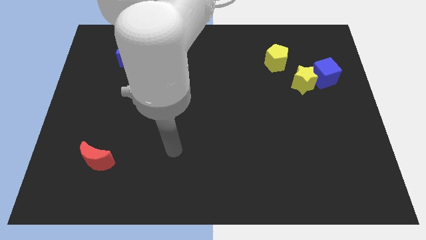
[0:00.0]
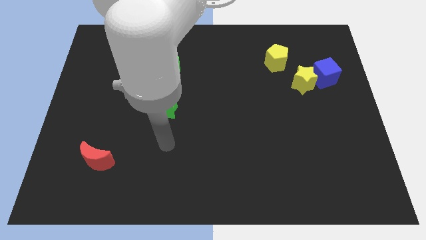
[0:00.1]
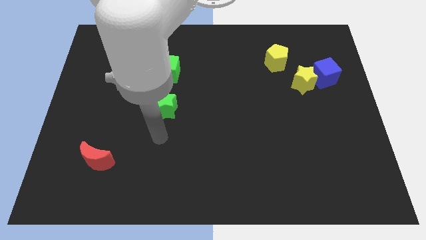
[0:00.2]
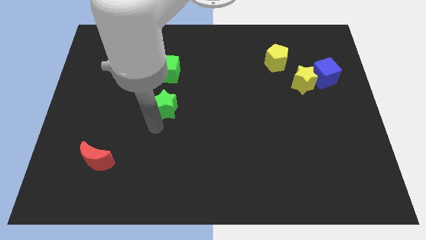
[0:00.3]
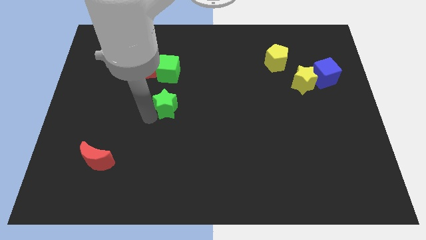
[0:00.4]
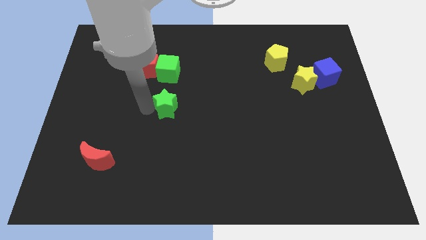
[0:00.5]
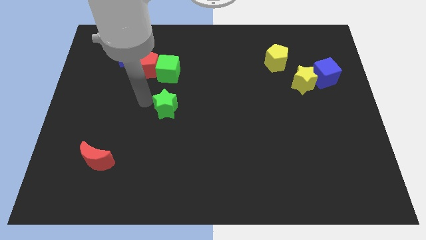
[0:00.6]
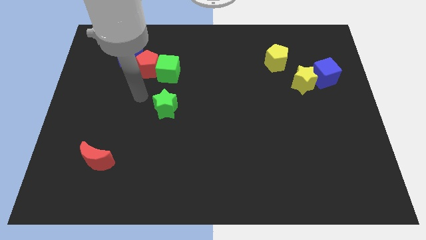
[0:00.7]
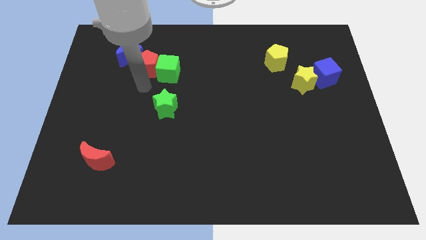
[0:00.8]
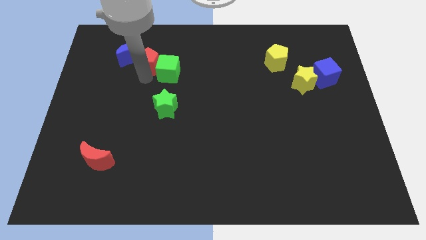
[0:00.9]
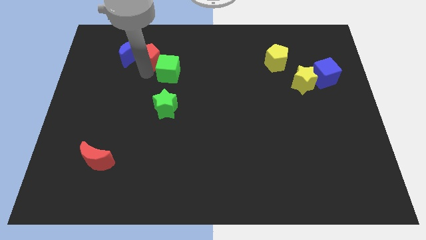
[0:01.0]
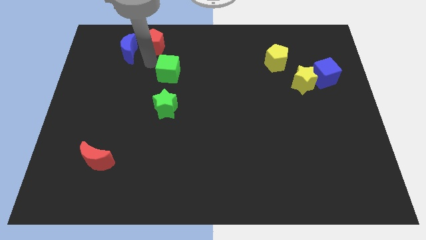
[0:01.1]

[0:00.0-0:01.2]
separate the green cube from the red pentagon

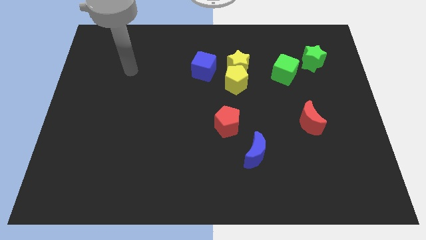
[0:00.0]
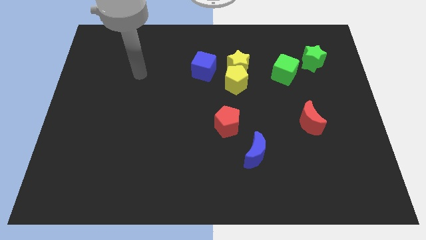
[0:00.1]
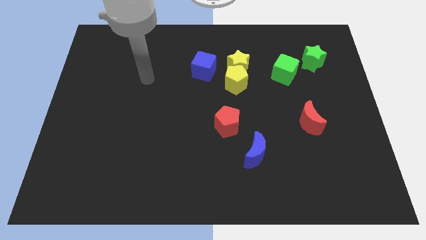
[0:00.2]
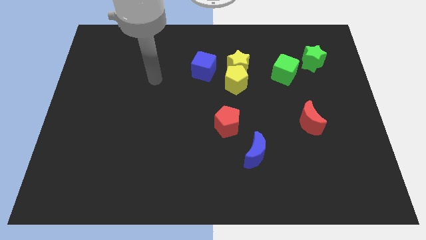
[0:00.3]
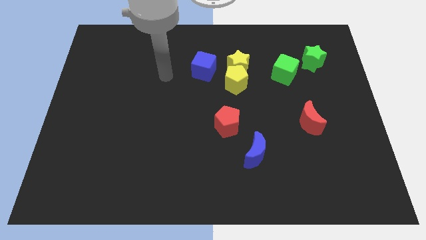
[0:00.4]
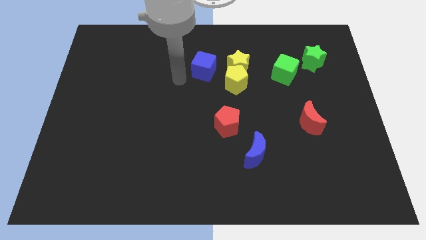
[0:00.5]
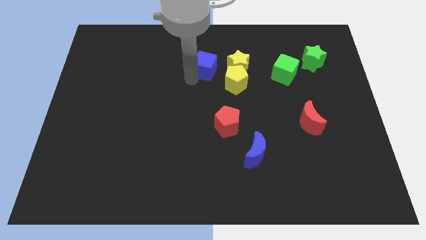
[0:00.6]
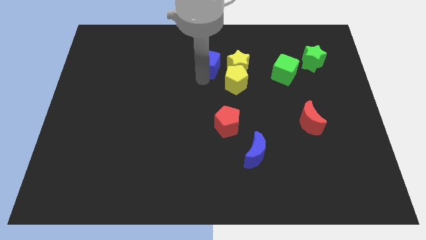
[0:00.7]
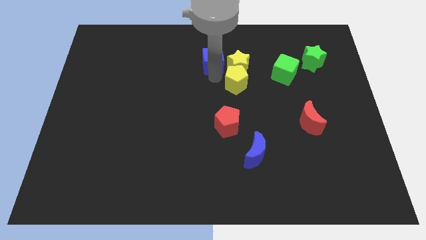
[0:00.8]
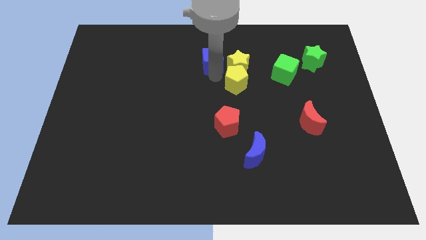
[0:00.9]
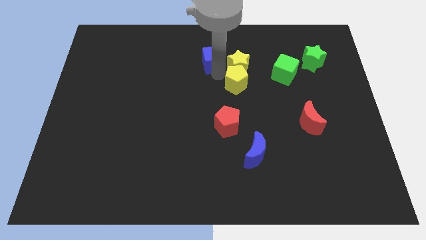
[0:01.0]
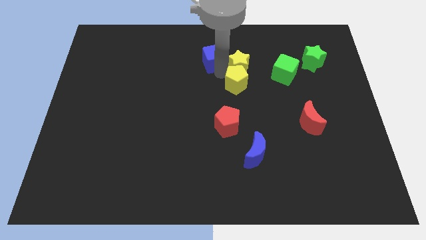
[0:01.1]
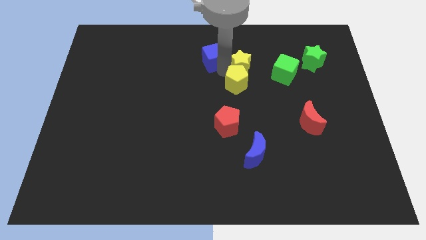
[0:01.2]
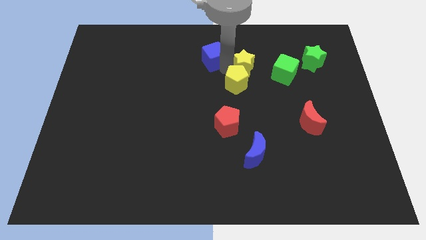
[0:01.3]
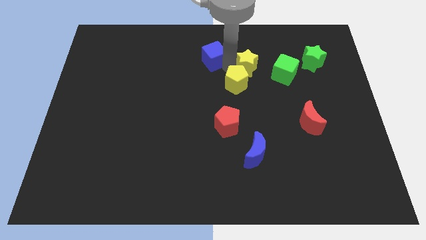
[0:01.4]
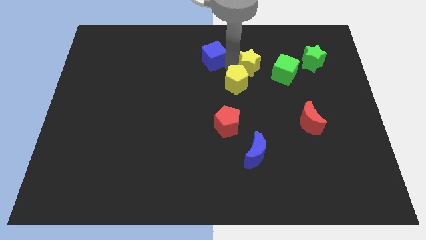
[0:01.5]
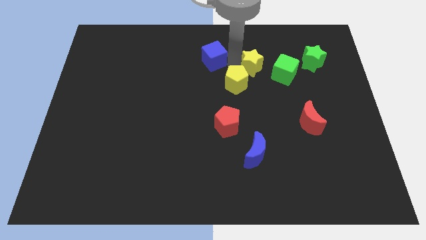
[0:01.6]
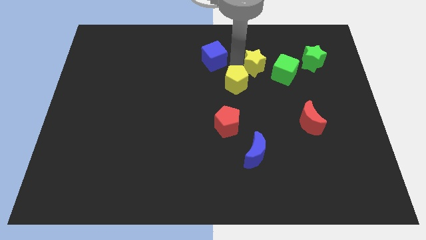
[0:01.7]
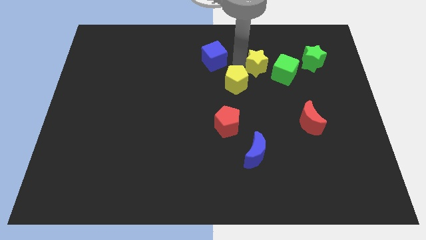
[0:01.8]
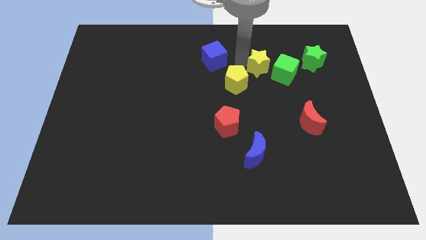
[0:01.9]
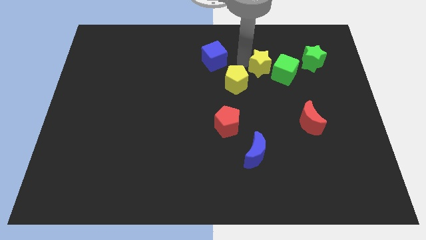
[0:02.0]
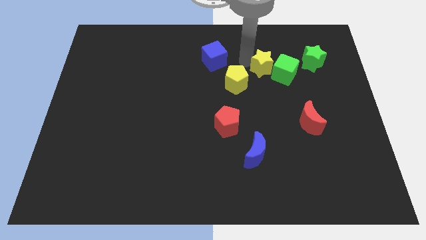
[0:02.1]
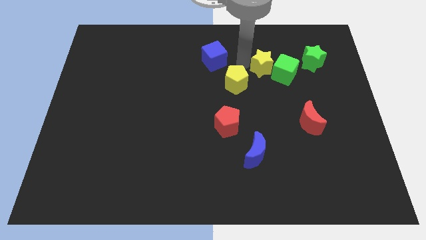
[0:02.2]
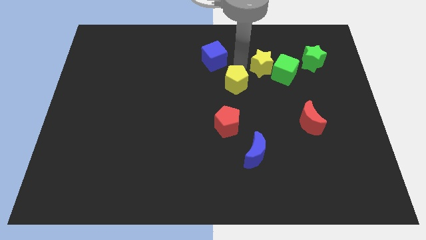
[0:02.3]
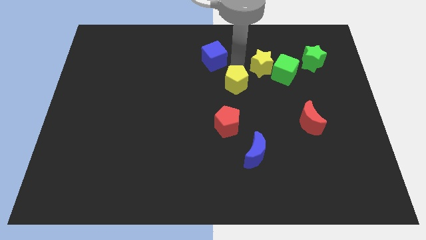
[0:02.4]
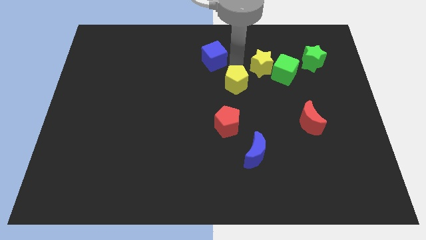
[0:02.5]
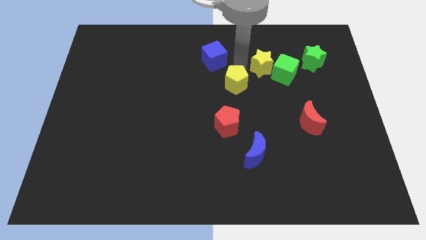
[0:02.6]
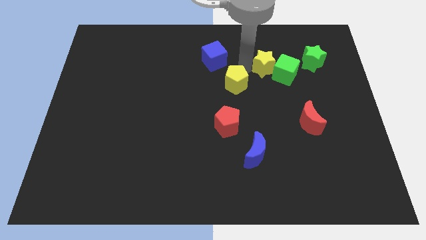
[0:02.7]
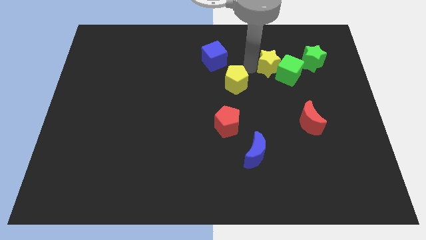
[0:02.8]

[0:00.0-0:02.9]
move the yellow star away from the yellow pentagon and blue cube

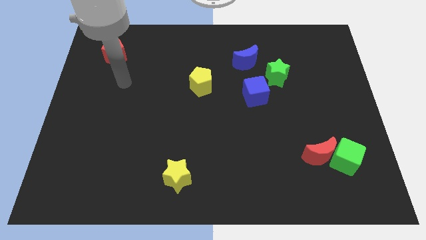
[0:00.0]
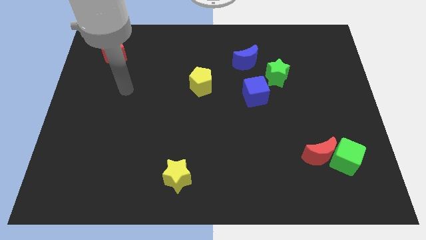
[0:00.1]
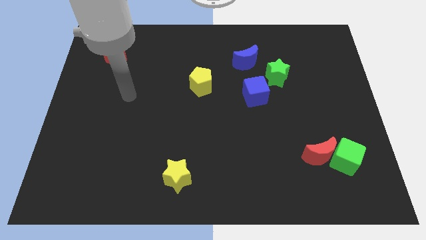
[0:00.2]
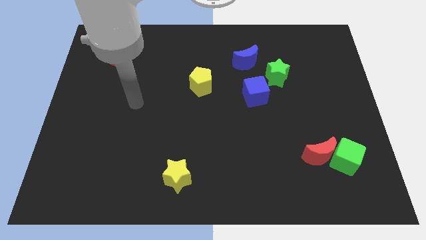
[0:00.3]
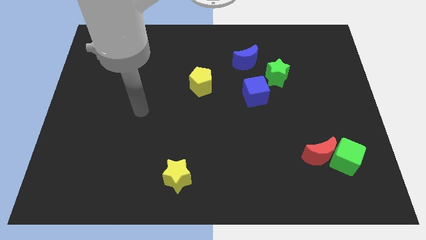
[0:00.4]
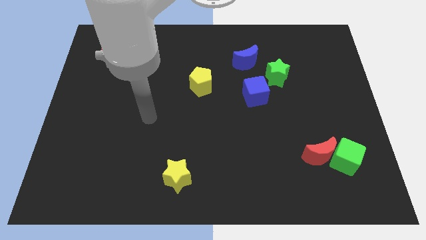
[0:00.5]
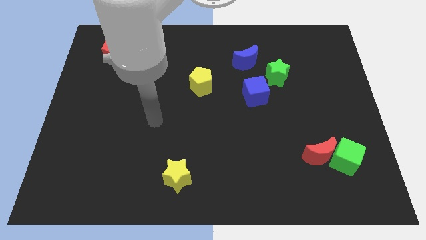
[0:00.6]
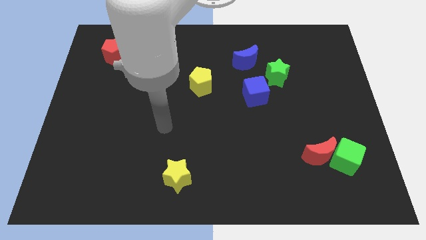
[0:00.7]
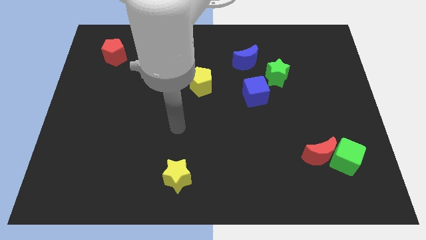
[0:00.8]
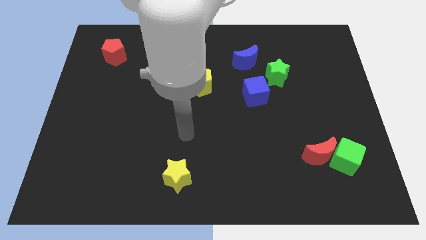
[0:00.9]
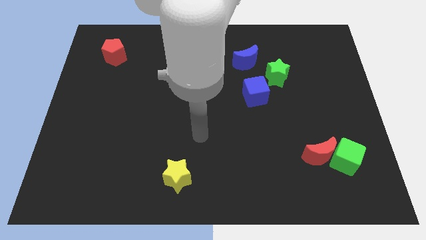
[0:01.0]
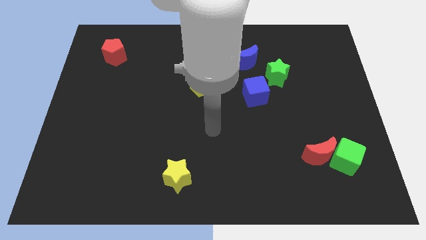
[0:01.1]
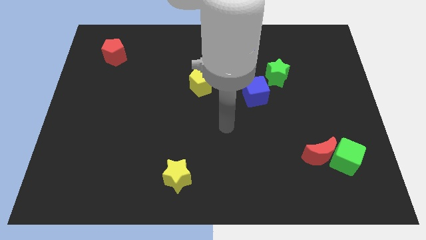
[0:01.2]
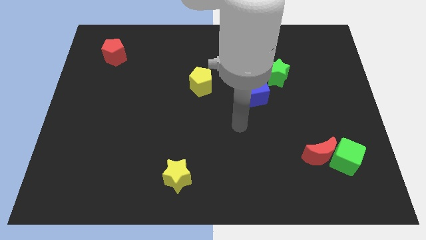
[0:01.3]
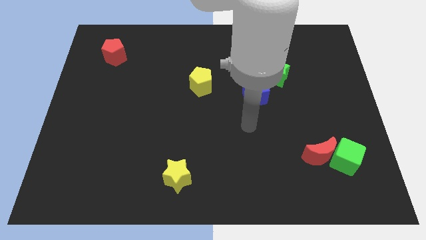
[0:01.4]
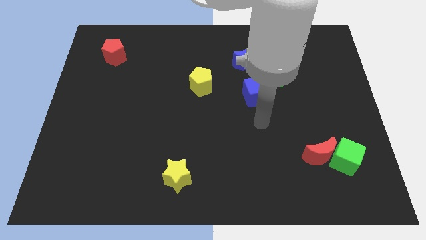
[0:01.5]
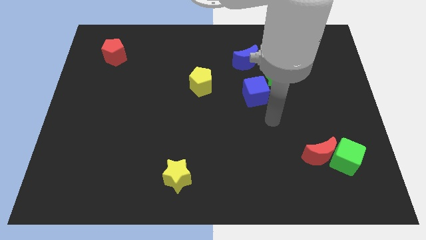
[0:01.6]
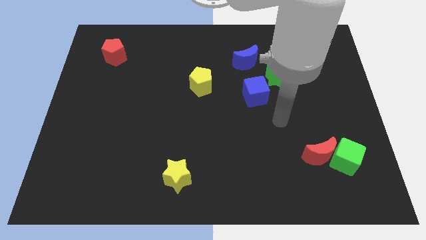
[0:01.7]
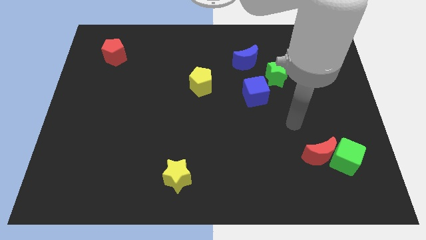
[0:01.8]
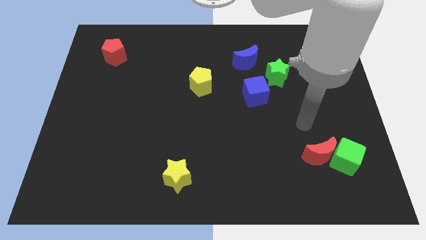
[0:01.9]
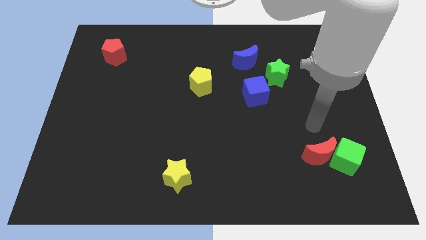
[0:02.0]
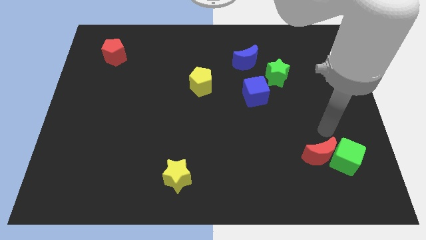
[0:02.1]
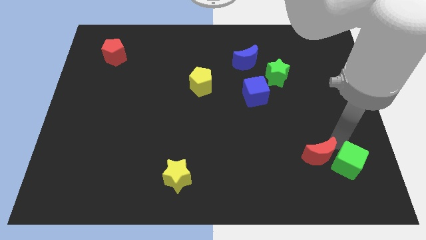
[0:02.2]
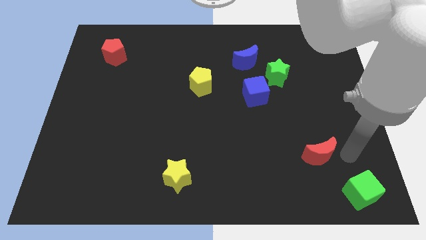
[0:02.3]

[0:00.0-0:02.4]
move the red moon away from the green cube

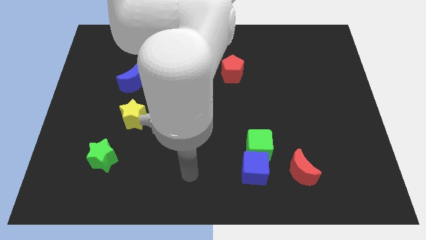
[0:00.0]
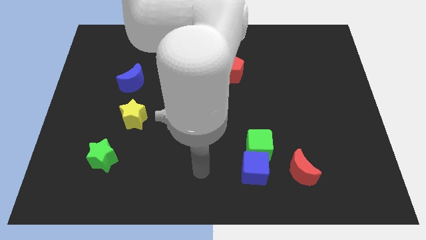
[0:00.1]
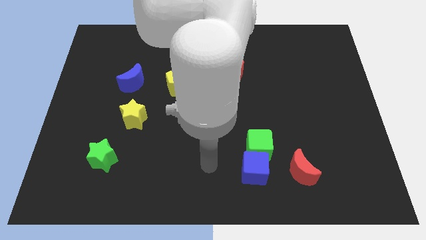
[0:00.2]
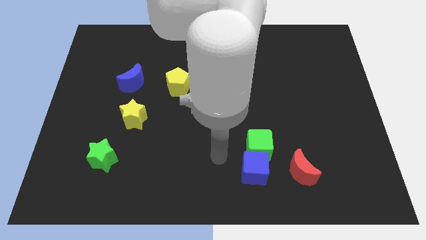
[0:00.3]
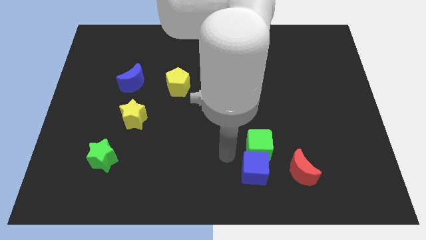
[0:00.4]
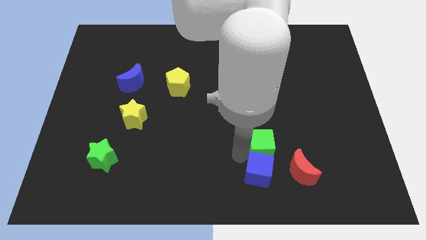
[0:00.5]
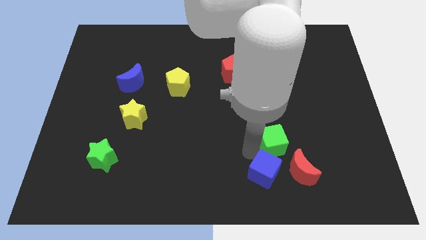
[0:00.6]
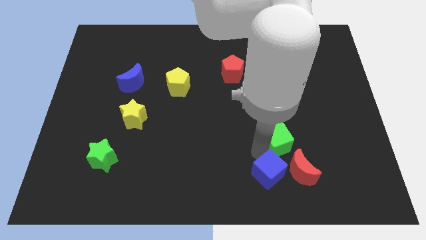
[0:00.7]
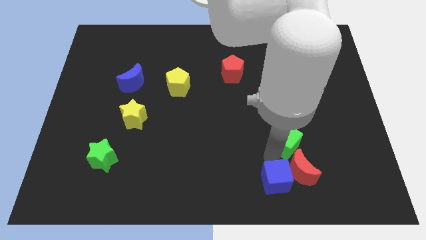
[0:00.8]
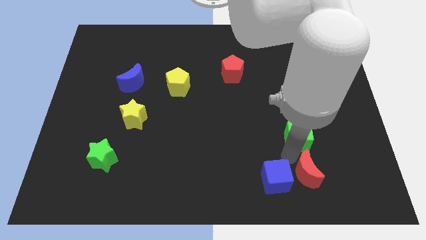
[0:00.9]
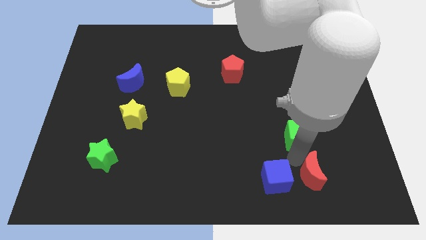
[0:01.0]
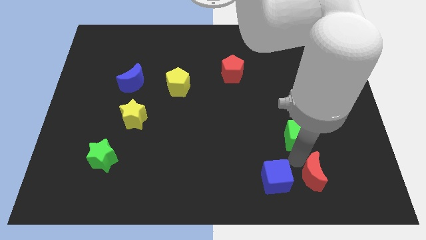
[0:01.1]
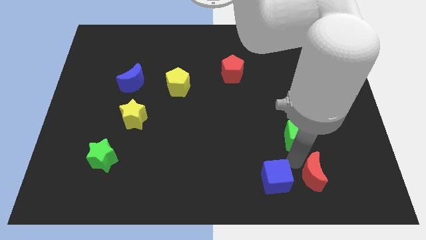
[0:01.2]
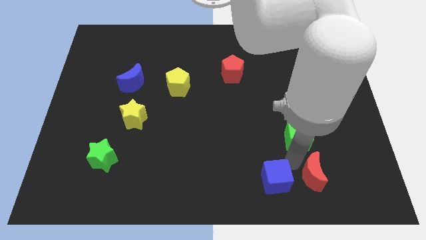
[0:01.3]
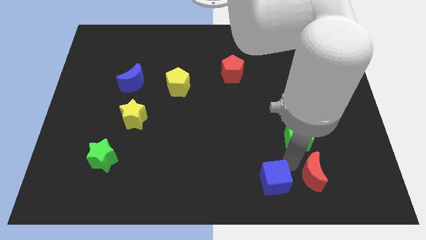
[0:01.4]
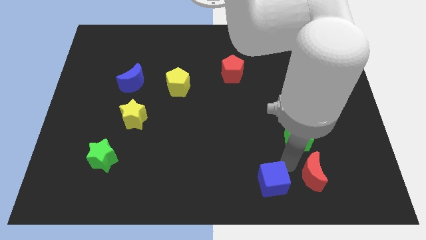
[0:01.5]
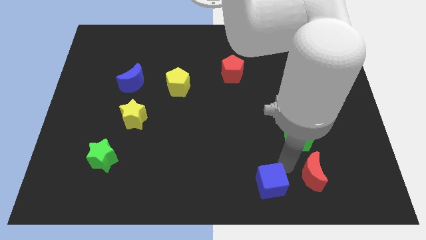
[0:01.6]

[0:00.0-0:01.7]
separate the blue cube from the green cube and red moon

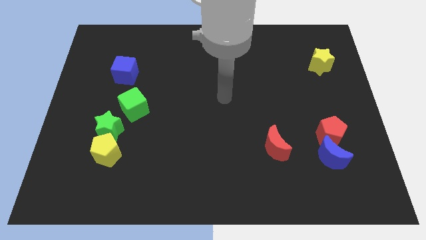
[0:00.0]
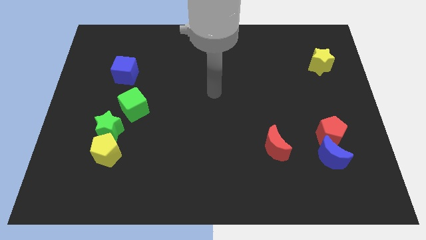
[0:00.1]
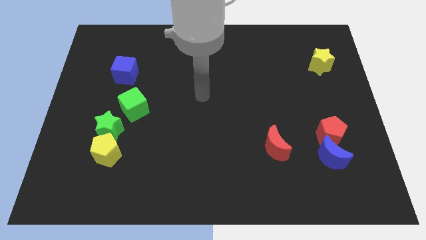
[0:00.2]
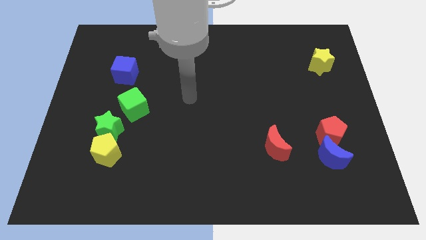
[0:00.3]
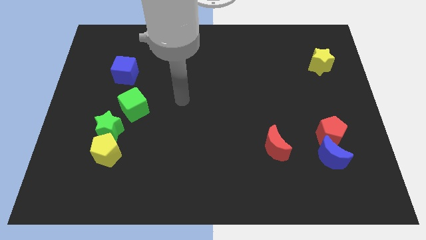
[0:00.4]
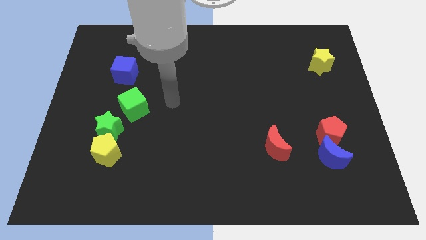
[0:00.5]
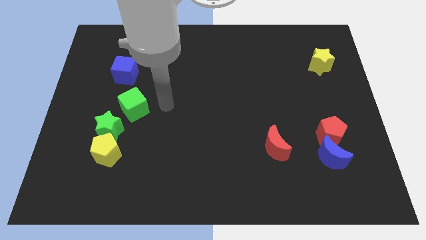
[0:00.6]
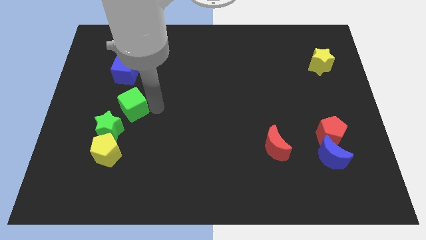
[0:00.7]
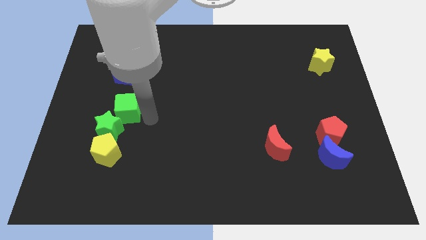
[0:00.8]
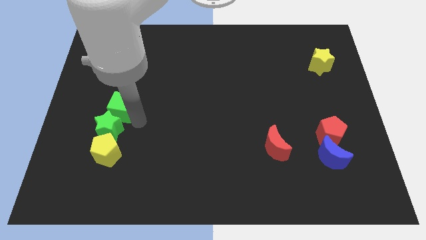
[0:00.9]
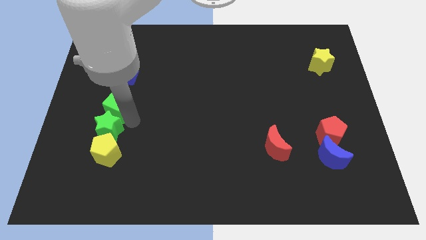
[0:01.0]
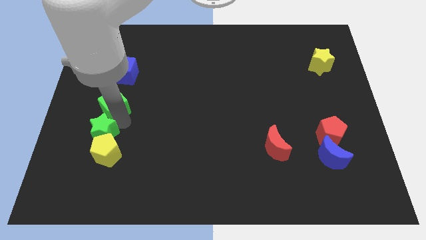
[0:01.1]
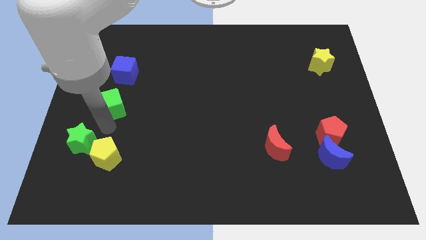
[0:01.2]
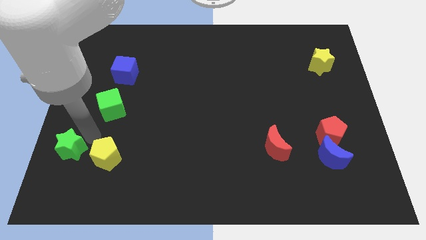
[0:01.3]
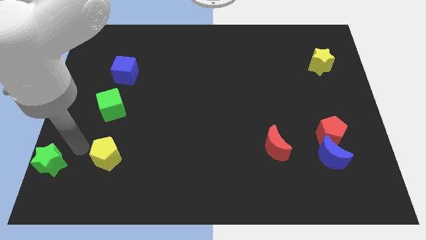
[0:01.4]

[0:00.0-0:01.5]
pull the yellow pentagon apart from the green star
